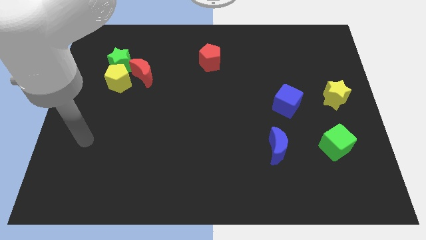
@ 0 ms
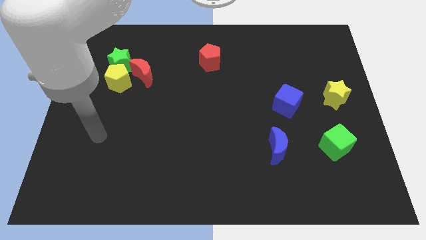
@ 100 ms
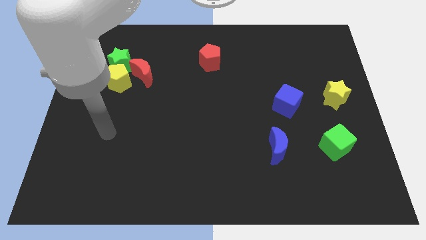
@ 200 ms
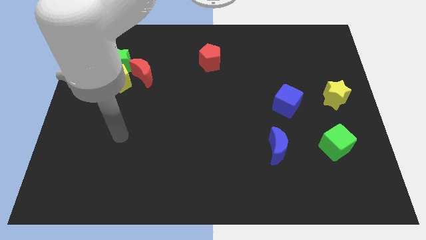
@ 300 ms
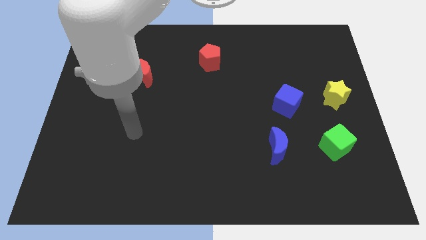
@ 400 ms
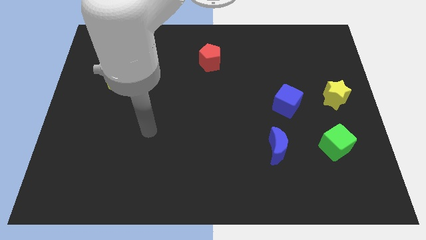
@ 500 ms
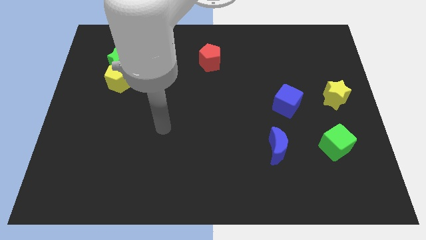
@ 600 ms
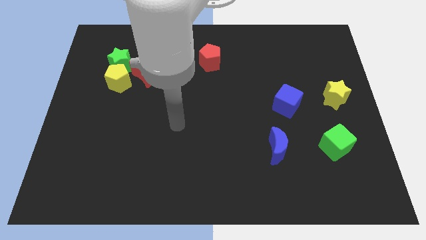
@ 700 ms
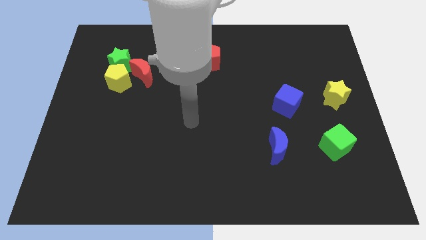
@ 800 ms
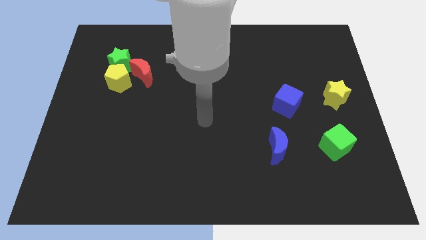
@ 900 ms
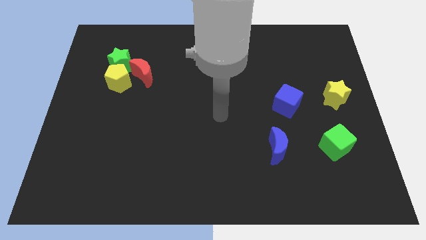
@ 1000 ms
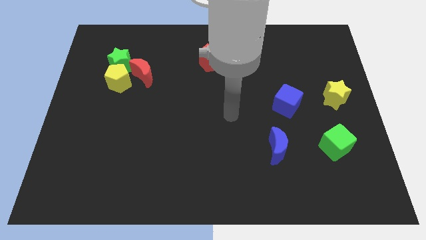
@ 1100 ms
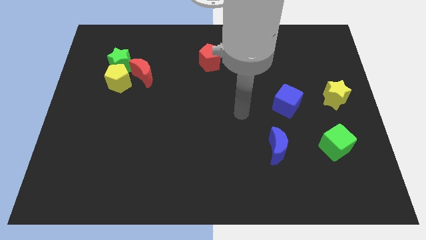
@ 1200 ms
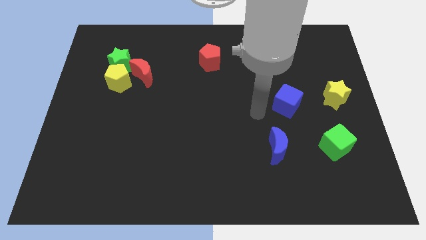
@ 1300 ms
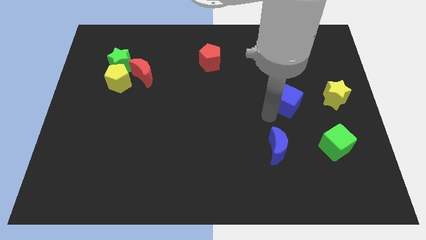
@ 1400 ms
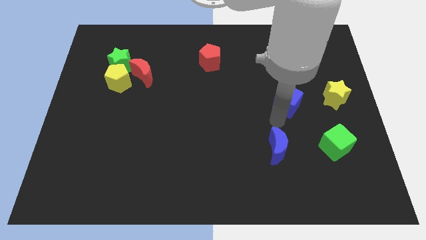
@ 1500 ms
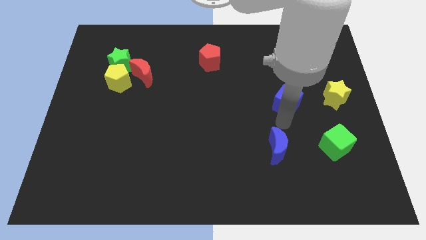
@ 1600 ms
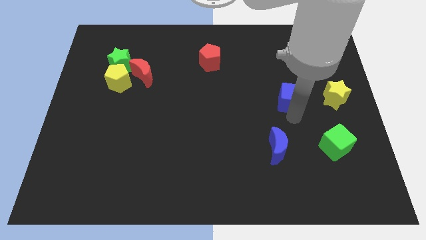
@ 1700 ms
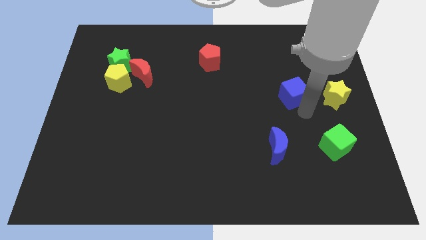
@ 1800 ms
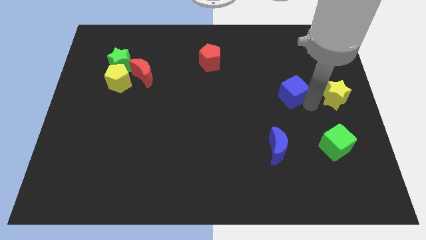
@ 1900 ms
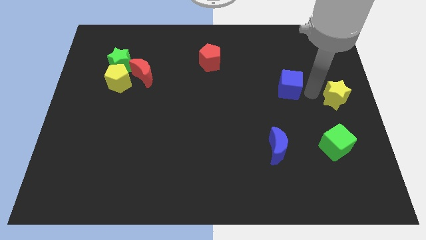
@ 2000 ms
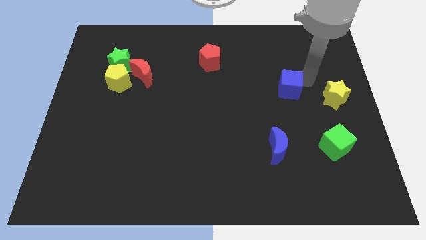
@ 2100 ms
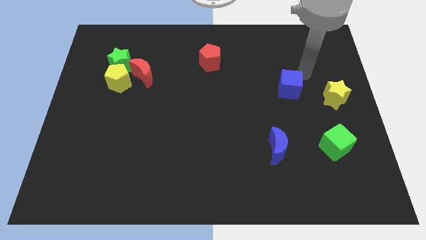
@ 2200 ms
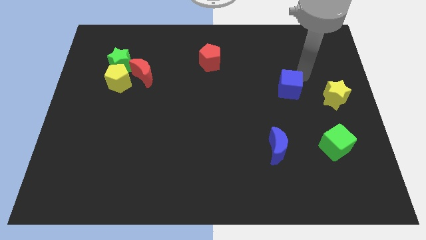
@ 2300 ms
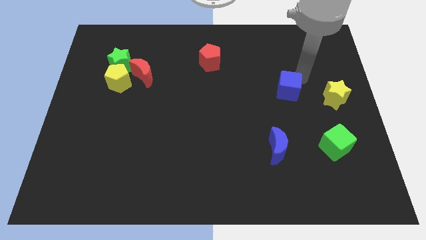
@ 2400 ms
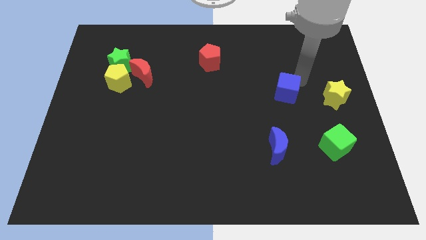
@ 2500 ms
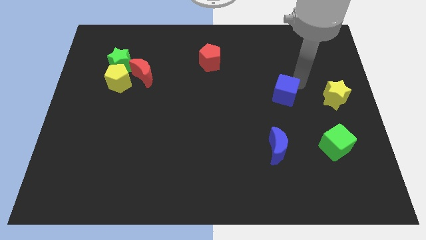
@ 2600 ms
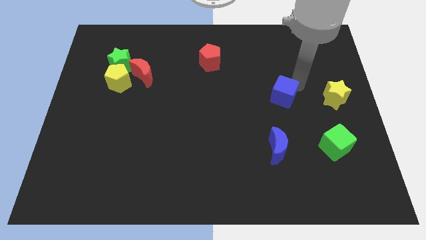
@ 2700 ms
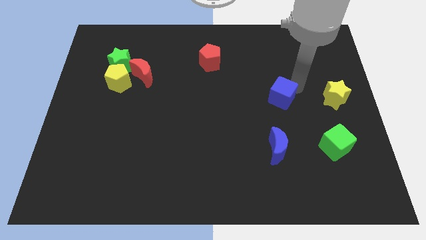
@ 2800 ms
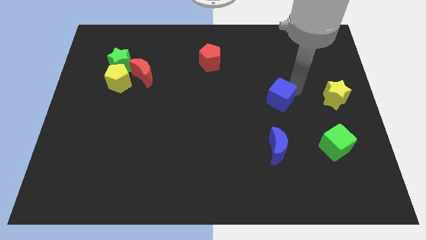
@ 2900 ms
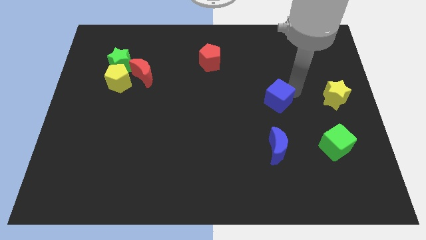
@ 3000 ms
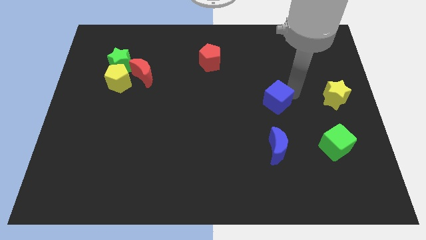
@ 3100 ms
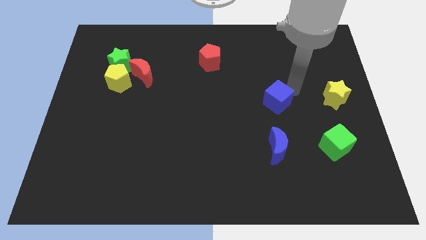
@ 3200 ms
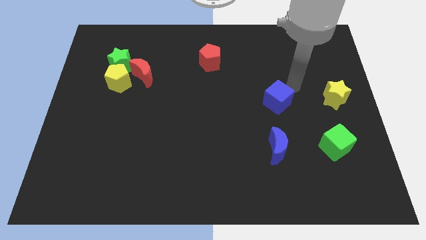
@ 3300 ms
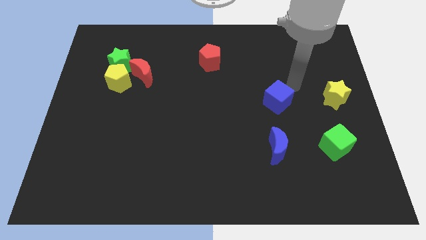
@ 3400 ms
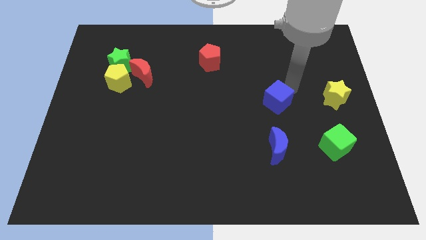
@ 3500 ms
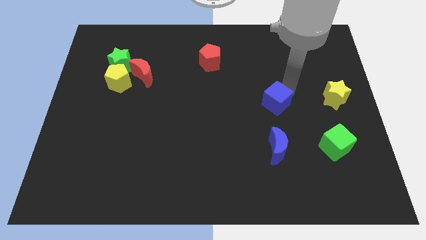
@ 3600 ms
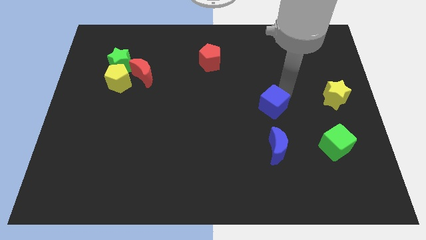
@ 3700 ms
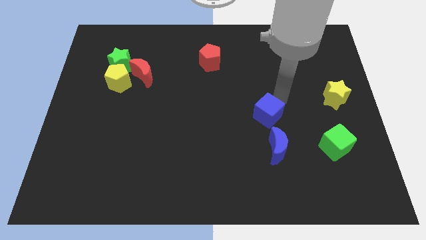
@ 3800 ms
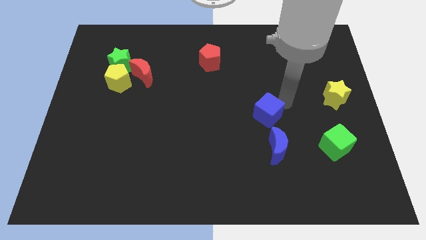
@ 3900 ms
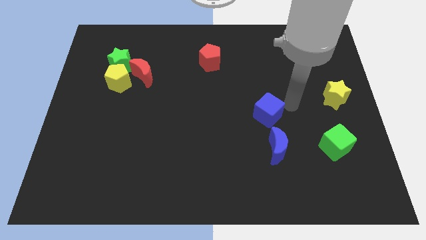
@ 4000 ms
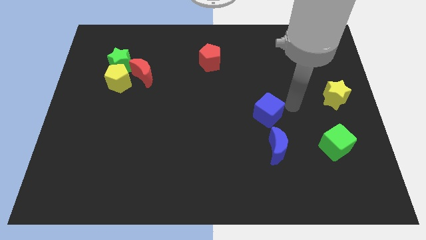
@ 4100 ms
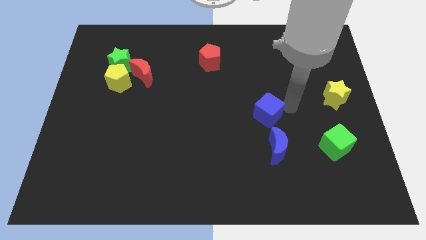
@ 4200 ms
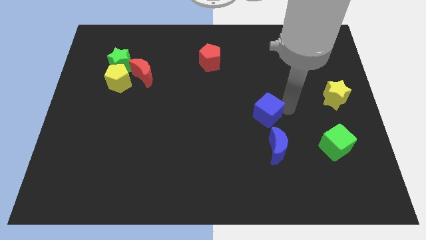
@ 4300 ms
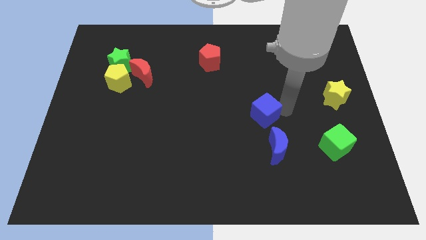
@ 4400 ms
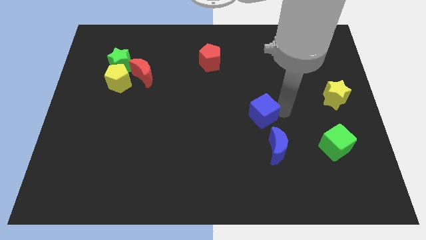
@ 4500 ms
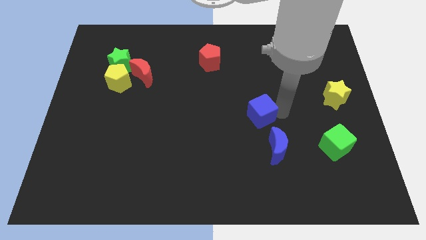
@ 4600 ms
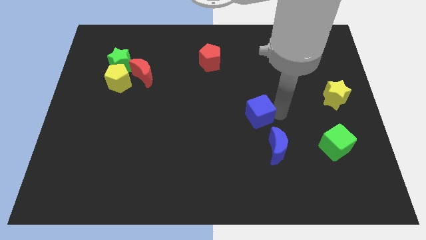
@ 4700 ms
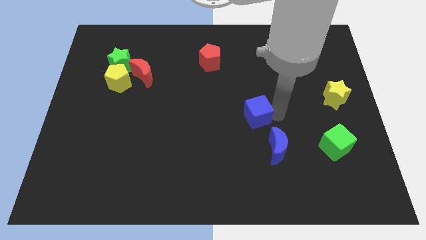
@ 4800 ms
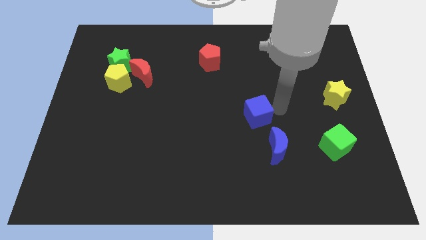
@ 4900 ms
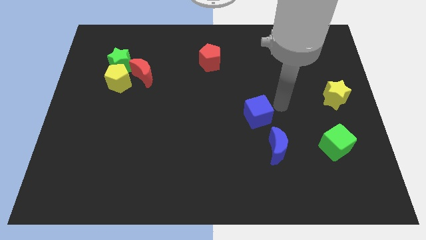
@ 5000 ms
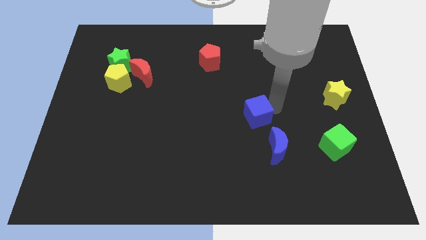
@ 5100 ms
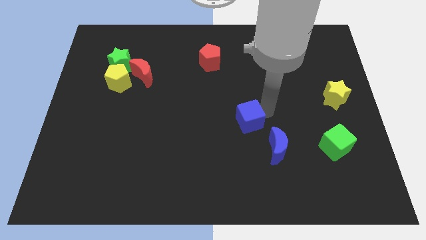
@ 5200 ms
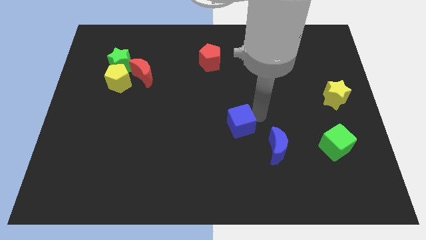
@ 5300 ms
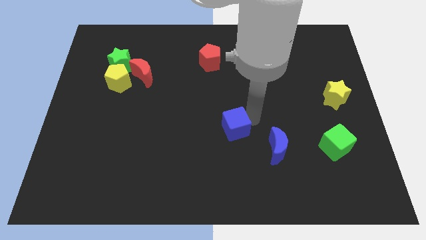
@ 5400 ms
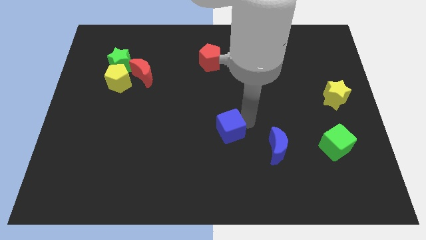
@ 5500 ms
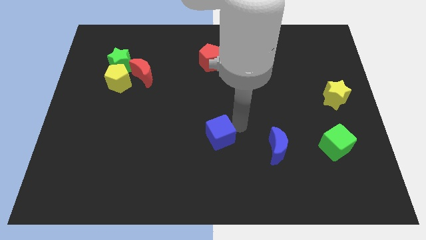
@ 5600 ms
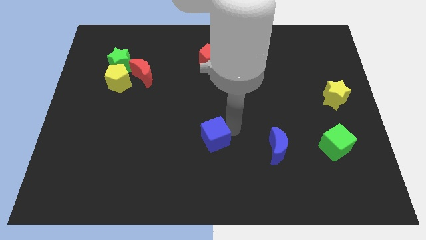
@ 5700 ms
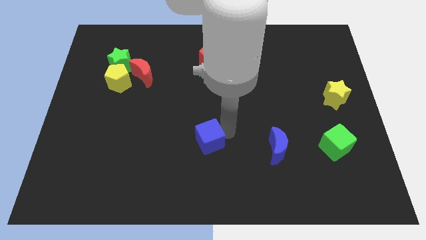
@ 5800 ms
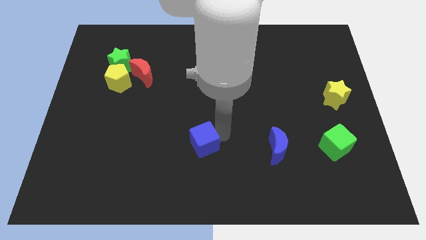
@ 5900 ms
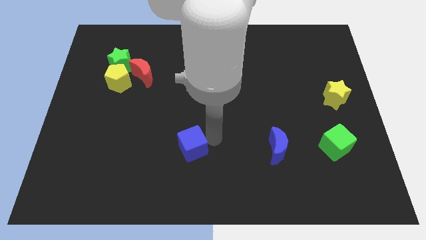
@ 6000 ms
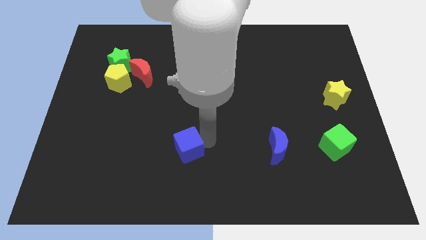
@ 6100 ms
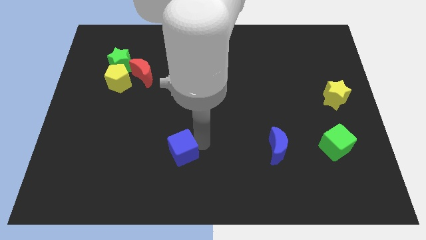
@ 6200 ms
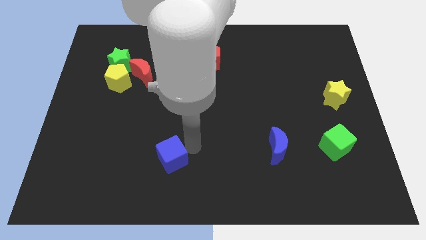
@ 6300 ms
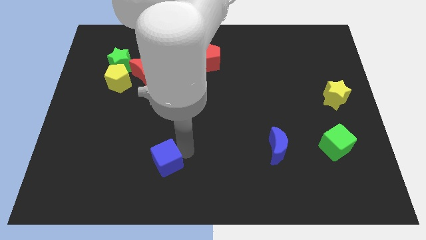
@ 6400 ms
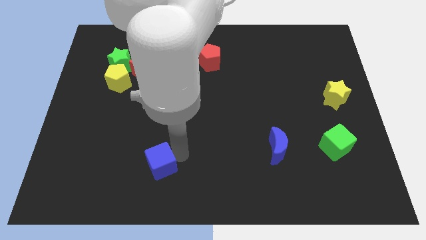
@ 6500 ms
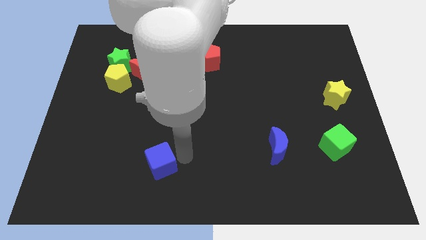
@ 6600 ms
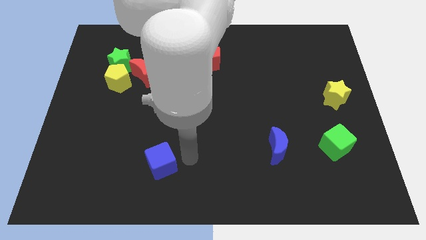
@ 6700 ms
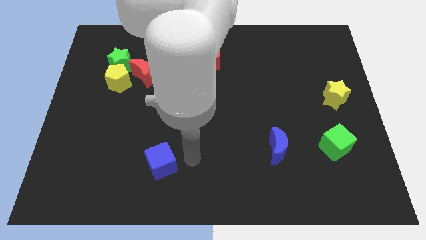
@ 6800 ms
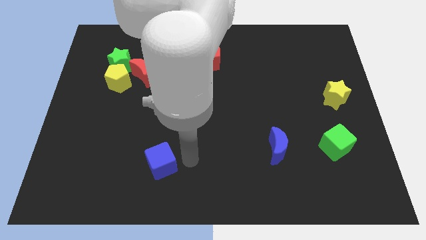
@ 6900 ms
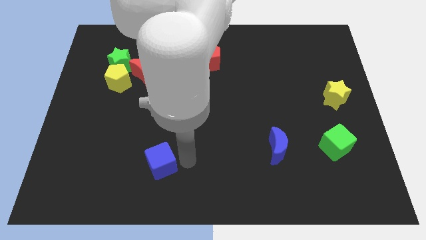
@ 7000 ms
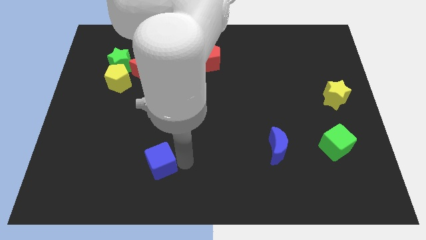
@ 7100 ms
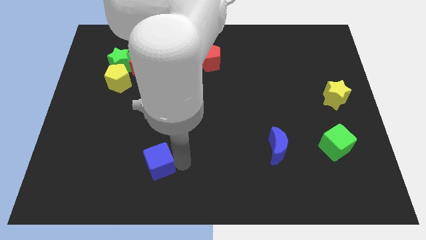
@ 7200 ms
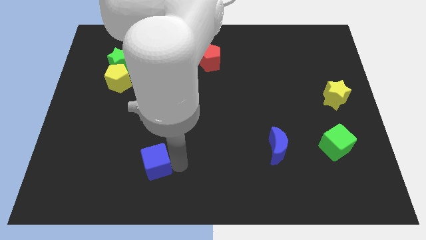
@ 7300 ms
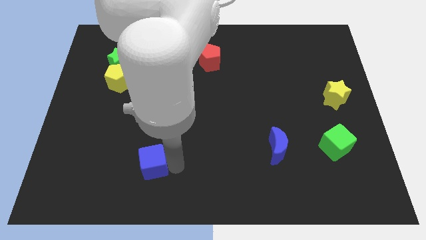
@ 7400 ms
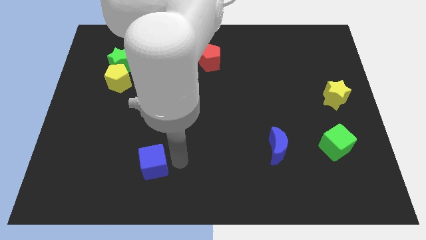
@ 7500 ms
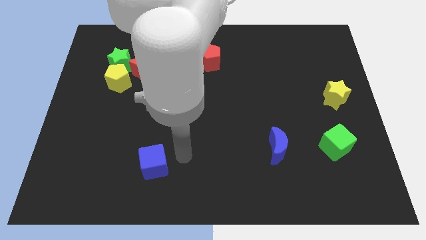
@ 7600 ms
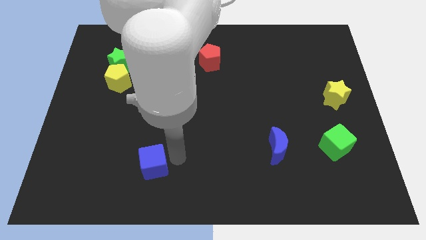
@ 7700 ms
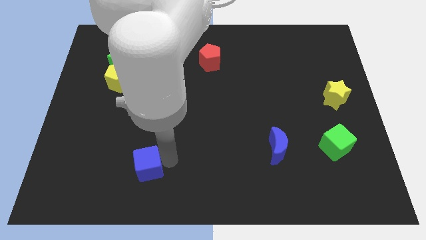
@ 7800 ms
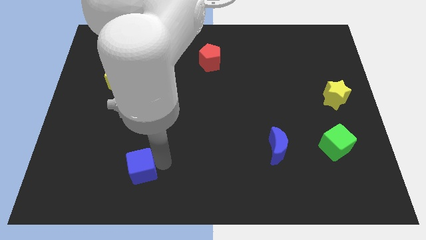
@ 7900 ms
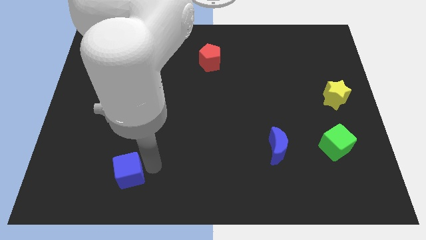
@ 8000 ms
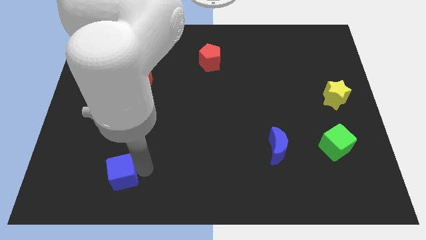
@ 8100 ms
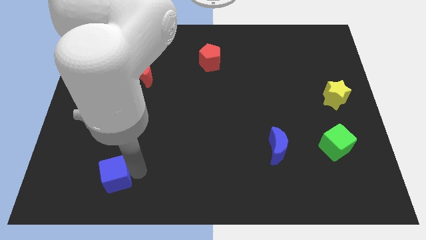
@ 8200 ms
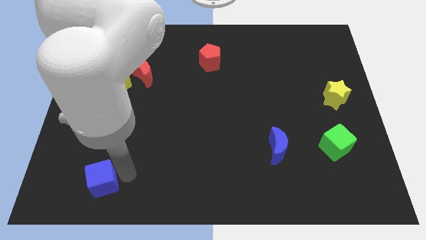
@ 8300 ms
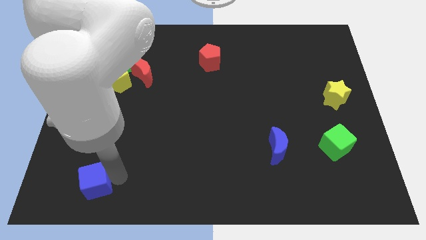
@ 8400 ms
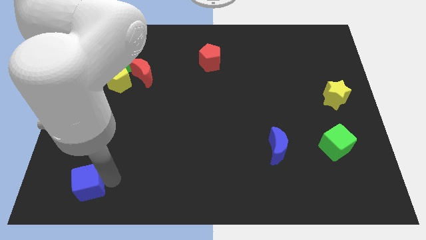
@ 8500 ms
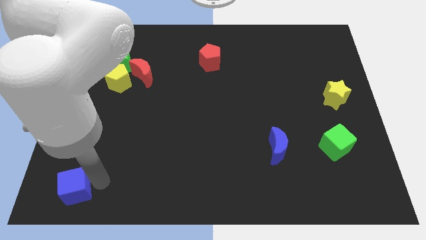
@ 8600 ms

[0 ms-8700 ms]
slide the blue cube to the bottom left of the board
